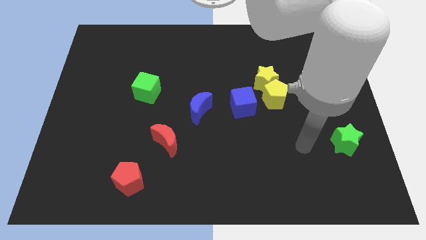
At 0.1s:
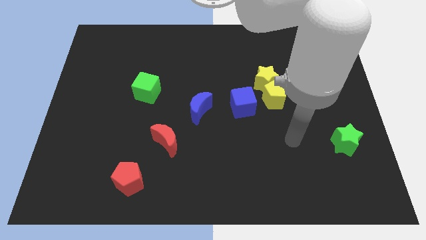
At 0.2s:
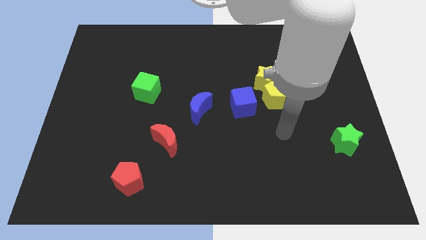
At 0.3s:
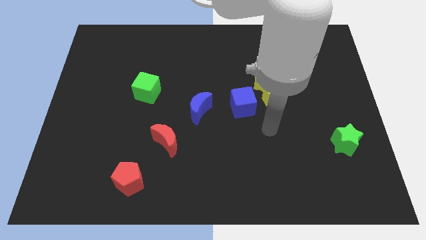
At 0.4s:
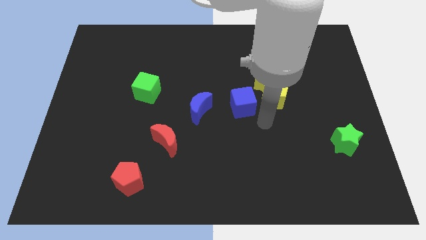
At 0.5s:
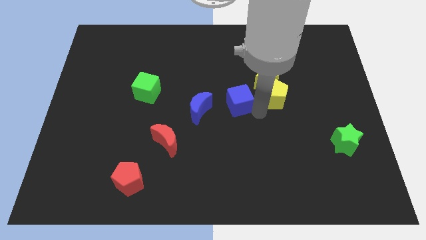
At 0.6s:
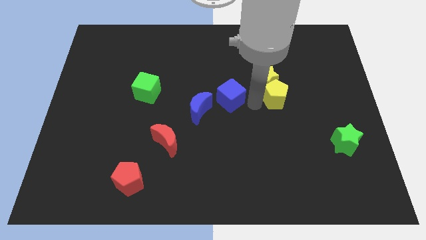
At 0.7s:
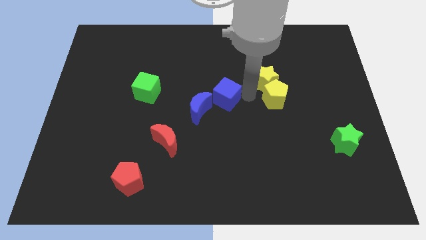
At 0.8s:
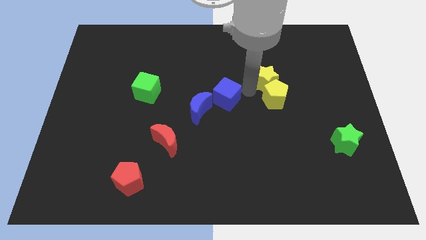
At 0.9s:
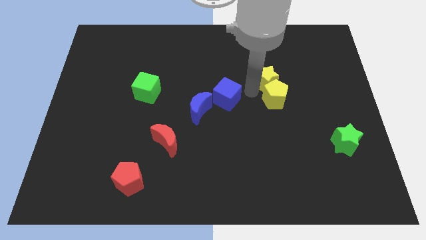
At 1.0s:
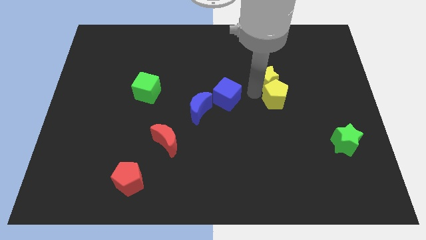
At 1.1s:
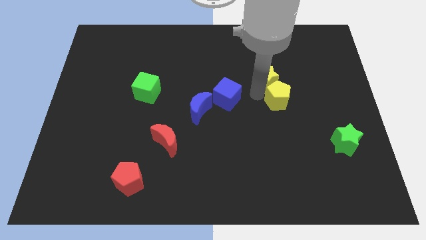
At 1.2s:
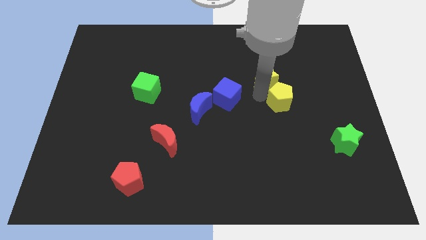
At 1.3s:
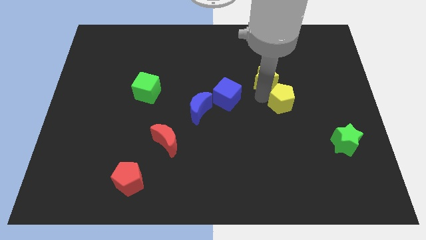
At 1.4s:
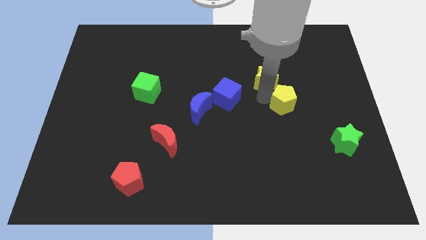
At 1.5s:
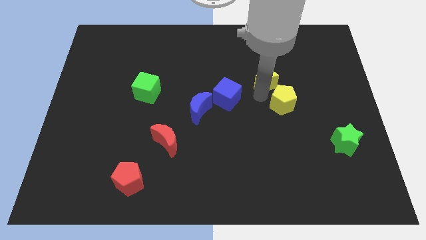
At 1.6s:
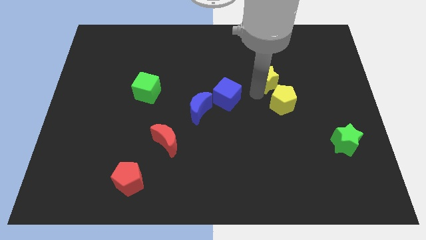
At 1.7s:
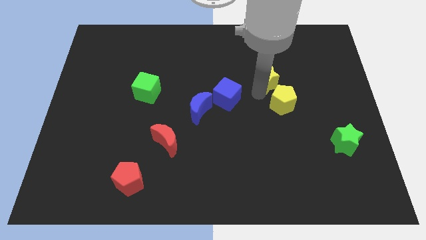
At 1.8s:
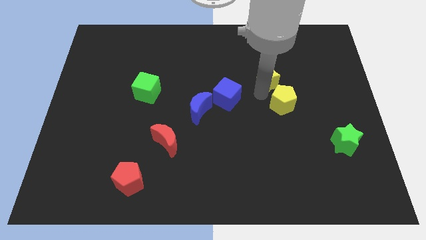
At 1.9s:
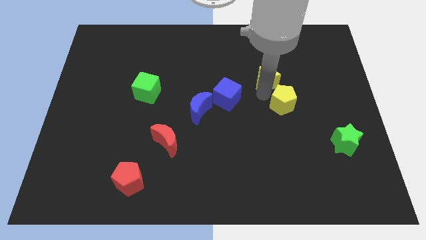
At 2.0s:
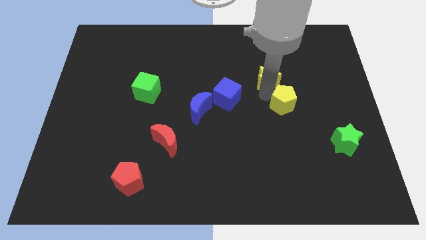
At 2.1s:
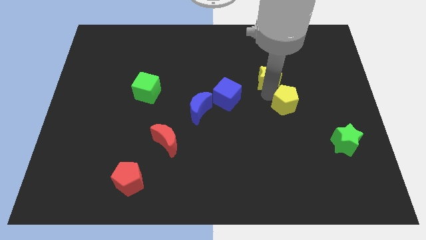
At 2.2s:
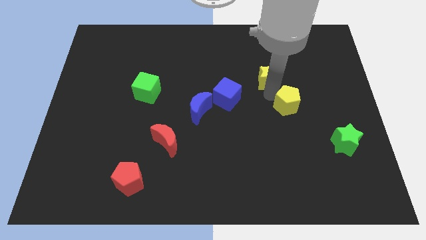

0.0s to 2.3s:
separate the yellow pentagon from the yellow star and blue cube

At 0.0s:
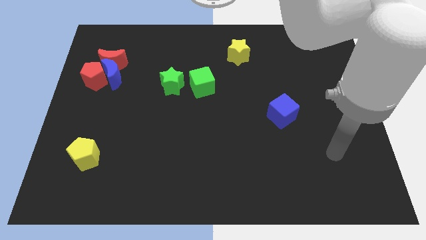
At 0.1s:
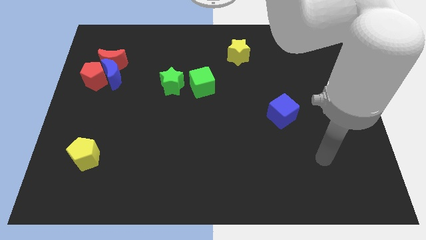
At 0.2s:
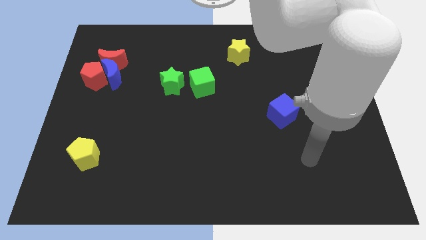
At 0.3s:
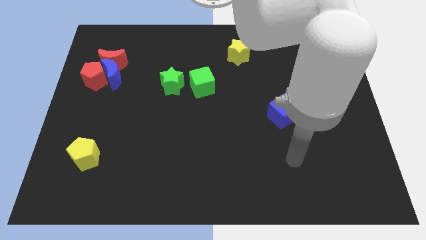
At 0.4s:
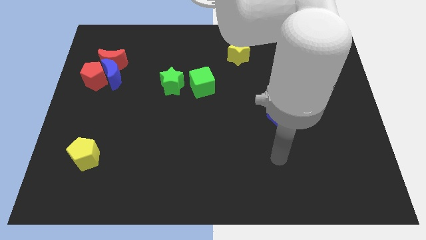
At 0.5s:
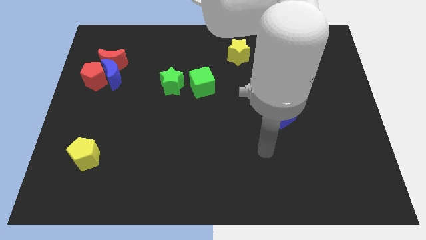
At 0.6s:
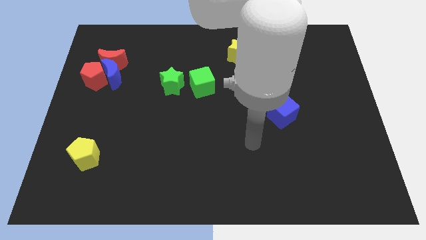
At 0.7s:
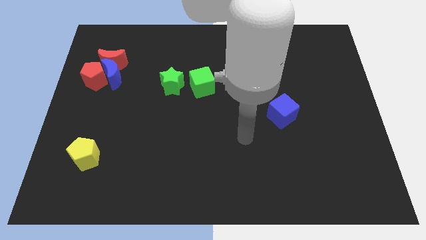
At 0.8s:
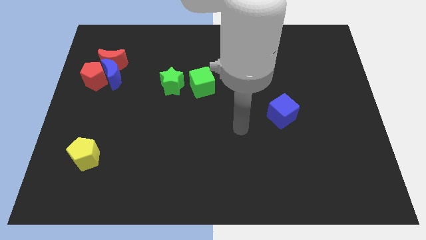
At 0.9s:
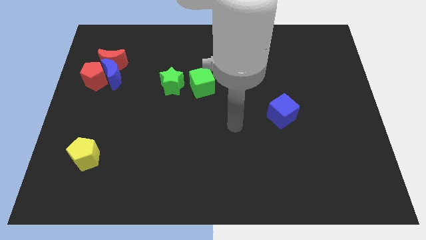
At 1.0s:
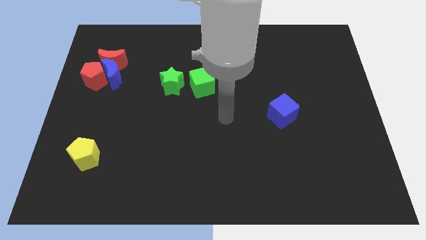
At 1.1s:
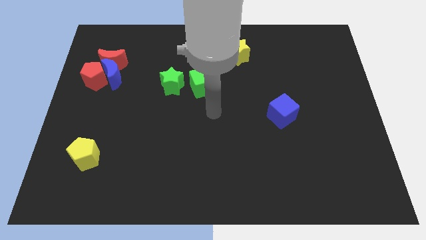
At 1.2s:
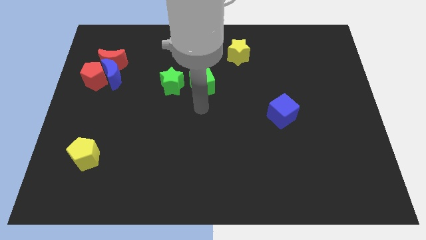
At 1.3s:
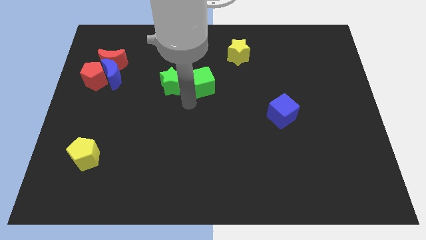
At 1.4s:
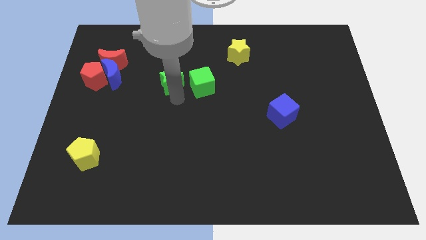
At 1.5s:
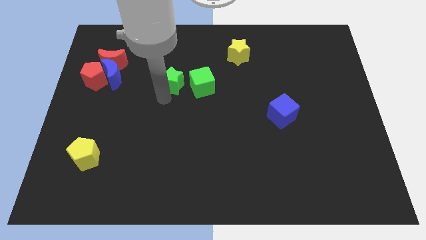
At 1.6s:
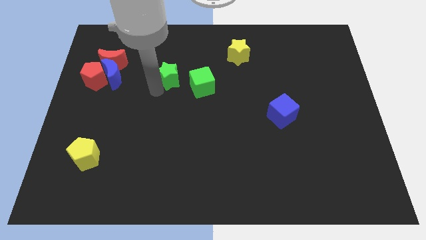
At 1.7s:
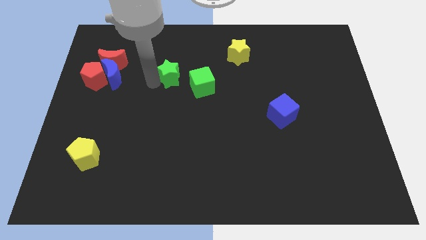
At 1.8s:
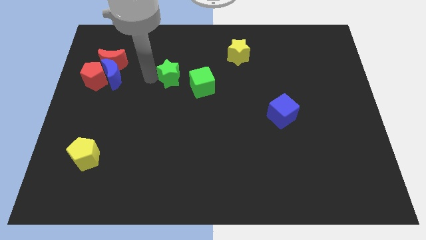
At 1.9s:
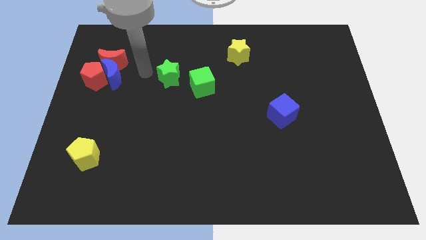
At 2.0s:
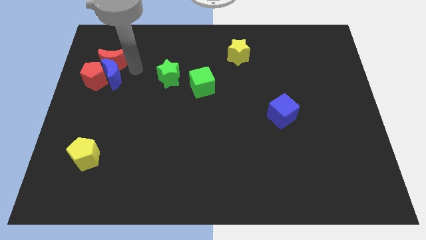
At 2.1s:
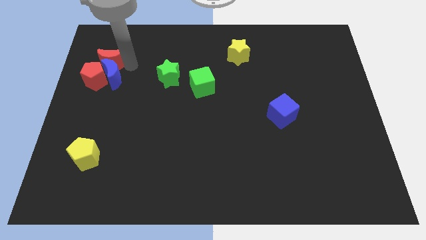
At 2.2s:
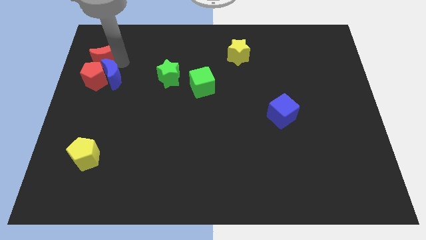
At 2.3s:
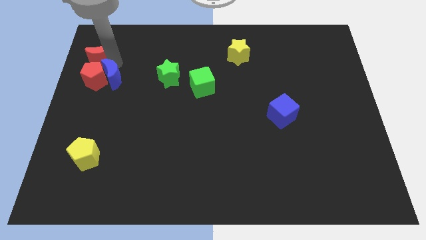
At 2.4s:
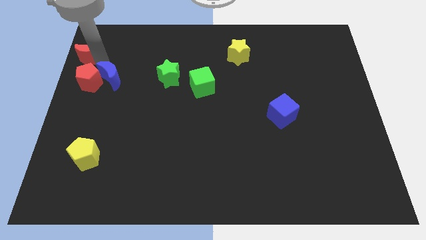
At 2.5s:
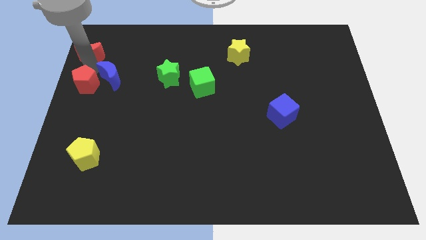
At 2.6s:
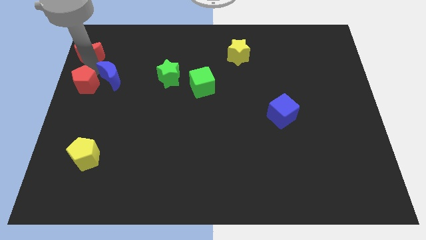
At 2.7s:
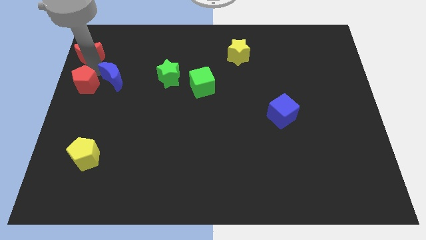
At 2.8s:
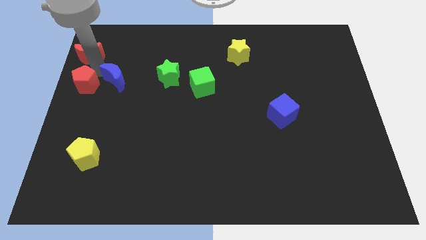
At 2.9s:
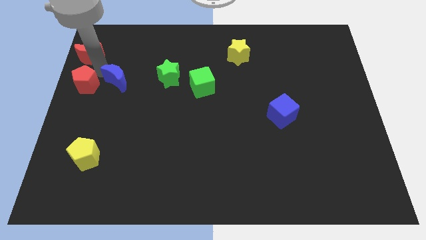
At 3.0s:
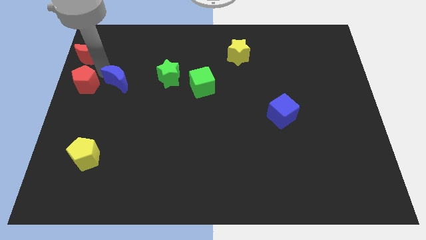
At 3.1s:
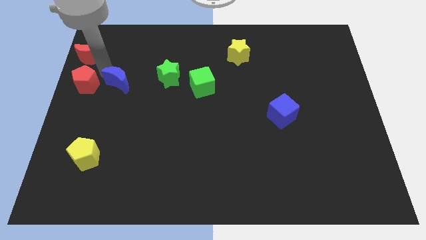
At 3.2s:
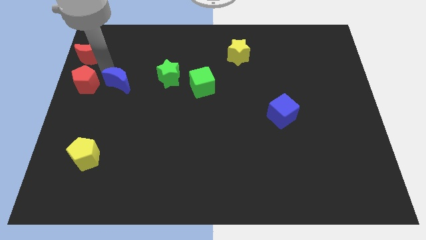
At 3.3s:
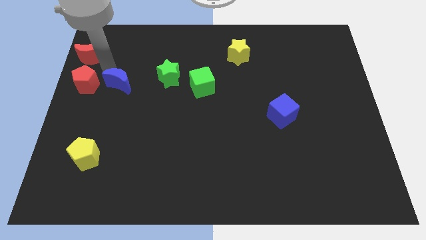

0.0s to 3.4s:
separate the blue moon from the red pentagon and red moon

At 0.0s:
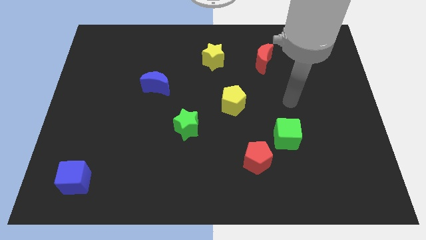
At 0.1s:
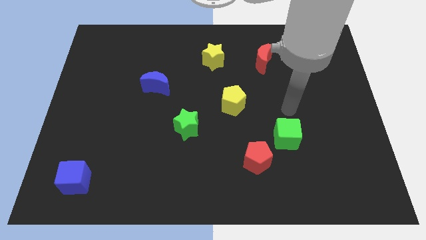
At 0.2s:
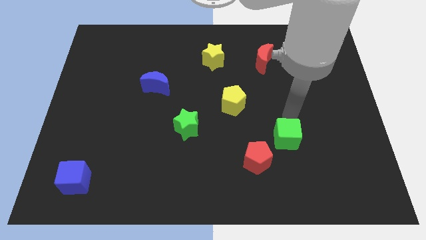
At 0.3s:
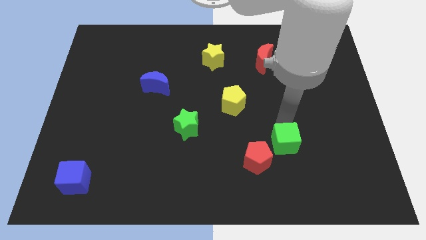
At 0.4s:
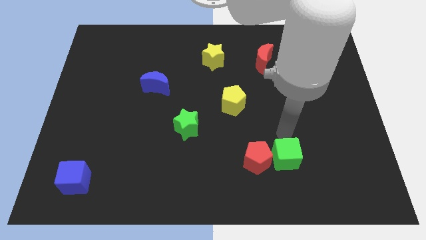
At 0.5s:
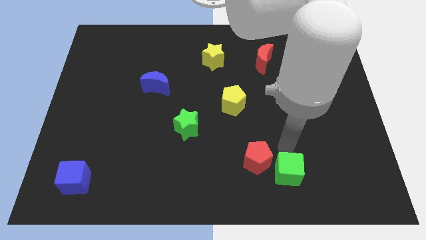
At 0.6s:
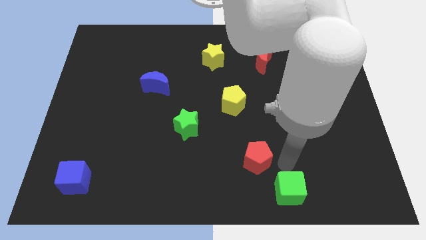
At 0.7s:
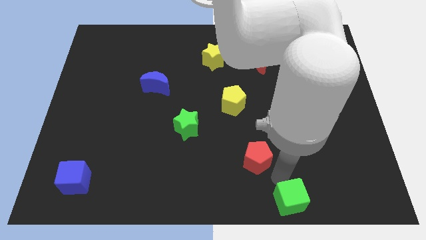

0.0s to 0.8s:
move the red pentagon away from the green cube

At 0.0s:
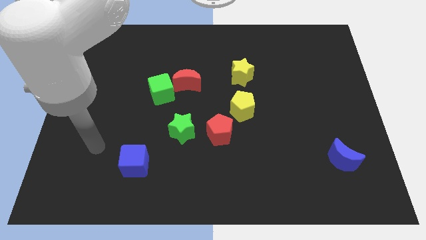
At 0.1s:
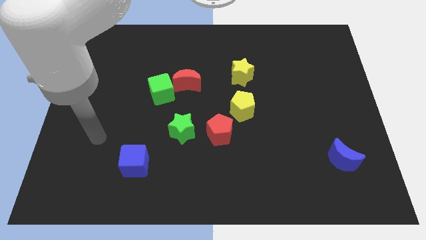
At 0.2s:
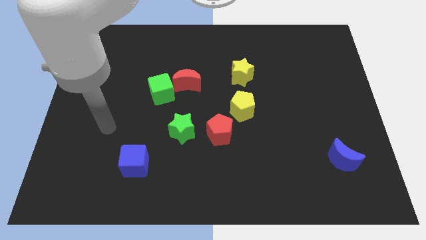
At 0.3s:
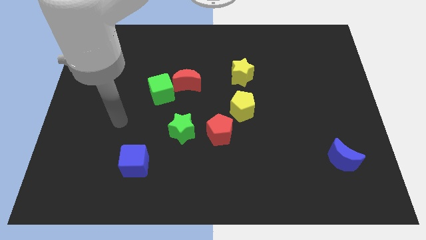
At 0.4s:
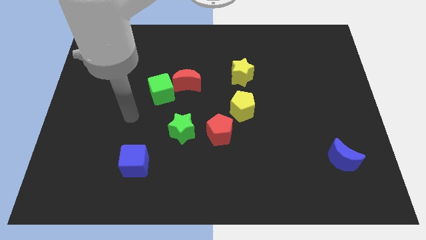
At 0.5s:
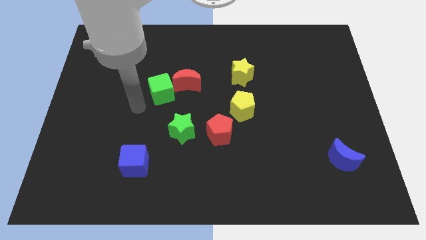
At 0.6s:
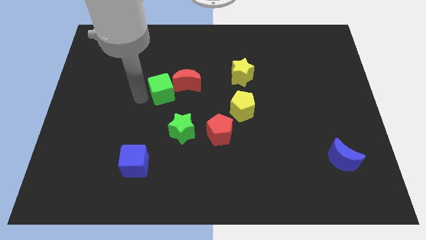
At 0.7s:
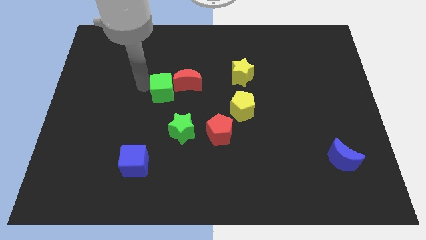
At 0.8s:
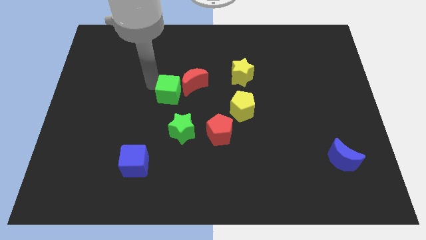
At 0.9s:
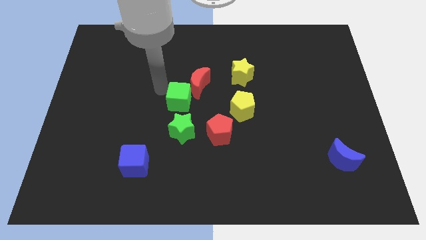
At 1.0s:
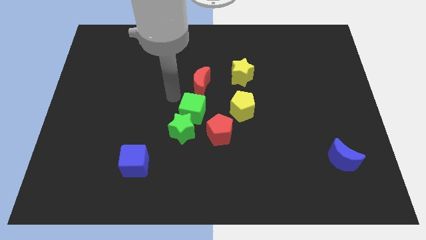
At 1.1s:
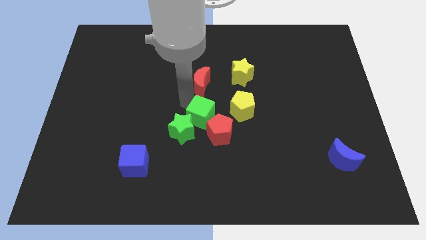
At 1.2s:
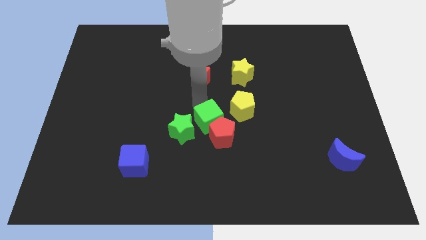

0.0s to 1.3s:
pull the red moon apart from the green cube

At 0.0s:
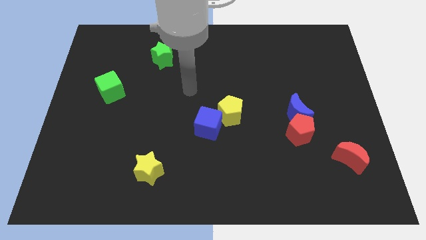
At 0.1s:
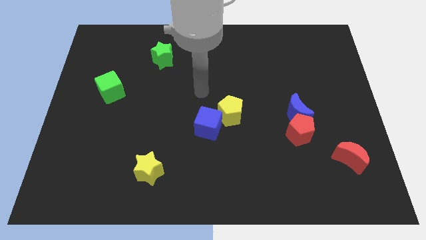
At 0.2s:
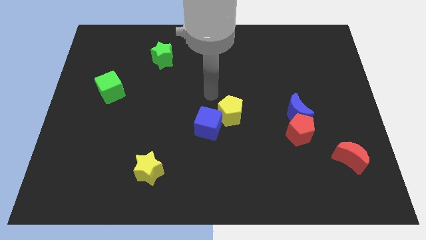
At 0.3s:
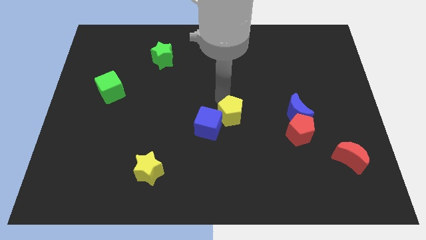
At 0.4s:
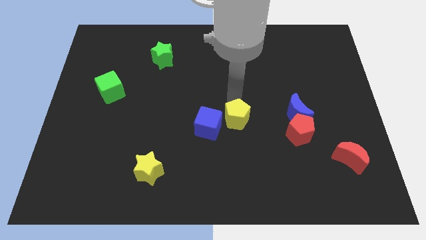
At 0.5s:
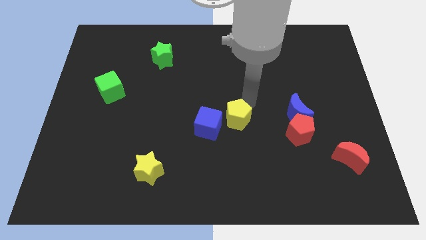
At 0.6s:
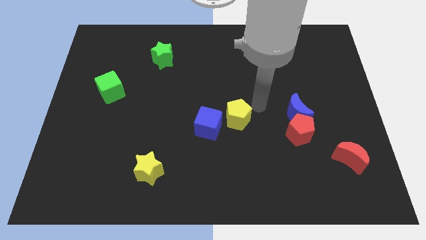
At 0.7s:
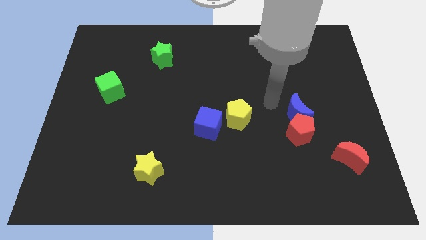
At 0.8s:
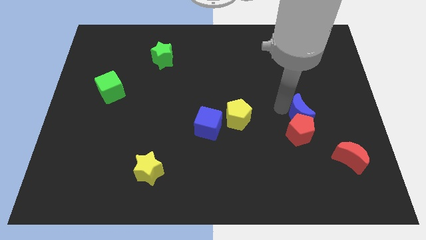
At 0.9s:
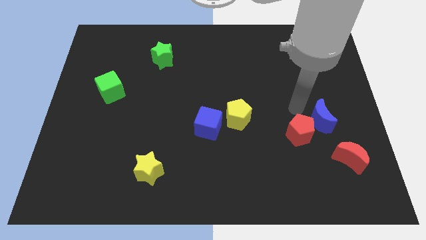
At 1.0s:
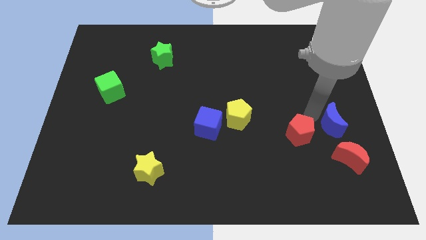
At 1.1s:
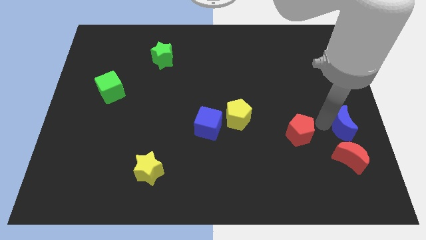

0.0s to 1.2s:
move the red pentagon away from the blue moon
